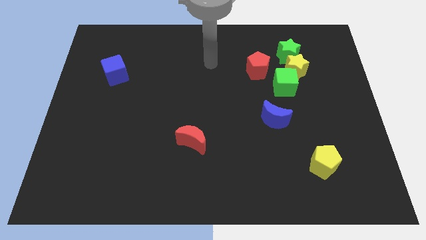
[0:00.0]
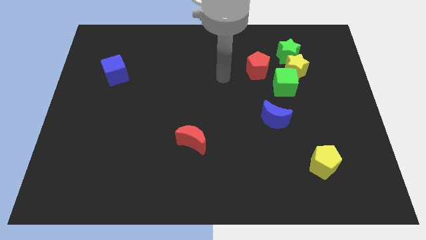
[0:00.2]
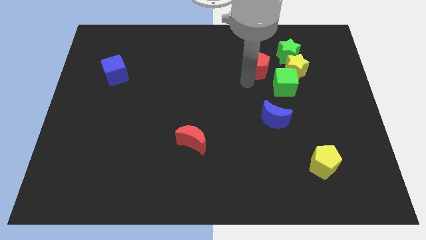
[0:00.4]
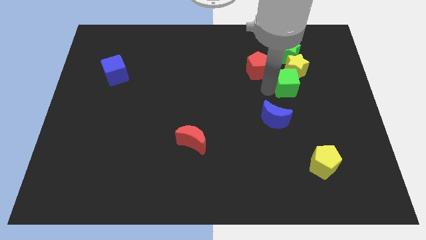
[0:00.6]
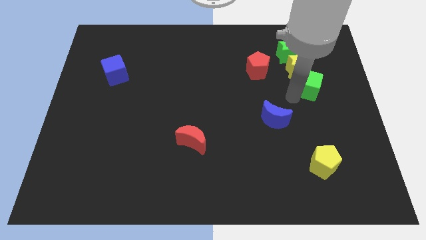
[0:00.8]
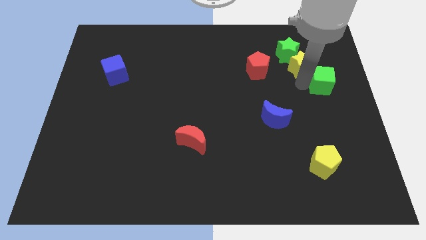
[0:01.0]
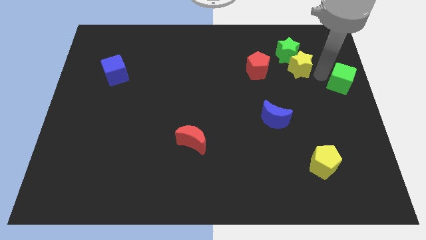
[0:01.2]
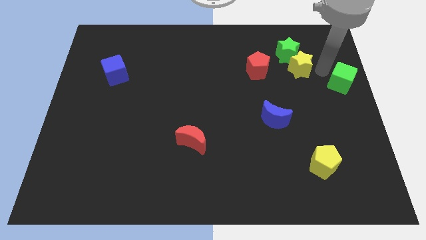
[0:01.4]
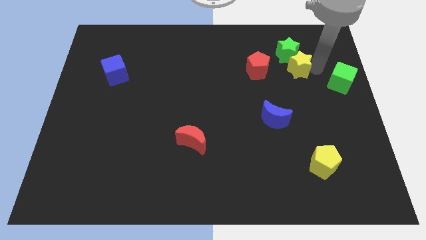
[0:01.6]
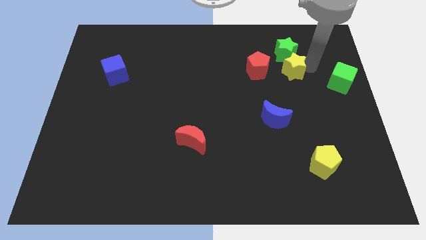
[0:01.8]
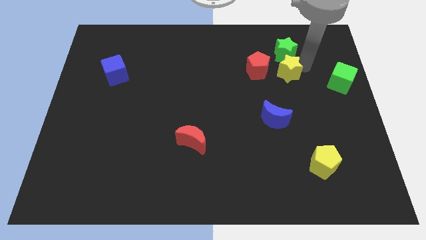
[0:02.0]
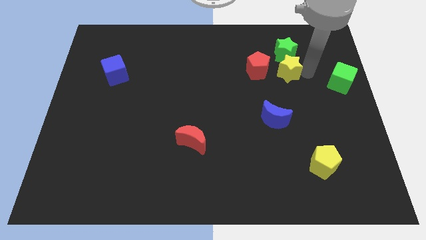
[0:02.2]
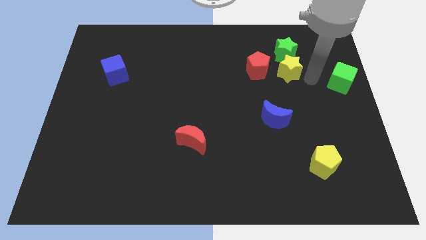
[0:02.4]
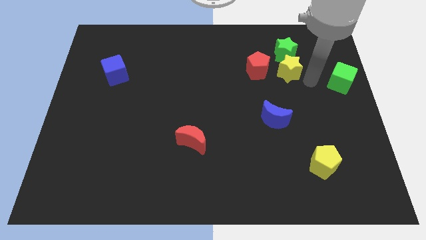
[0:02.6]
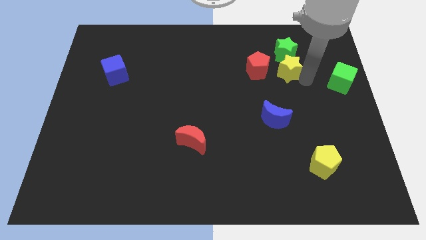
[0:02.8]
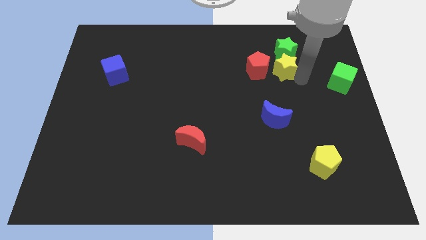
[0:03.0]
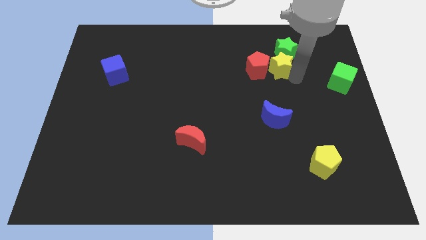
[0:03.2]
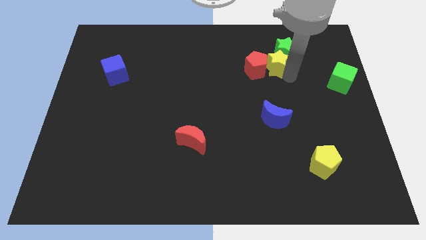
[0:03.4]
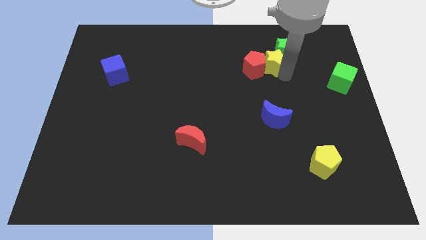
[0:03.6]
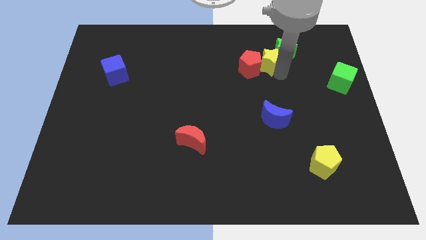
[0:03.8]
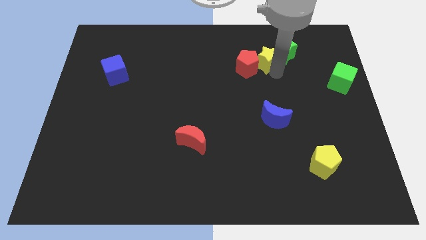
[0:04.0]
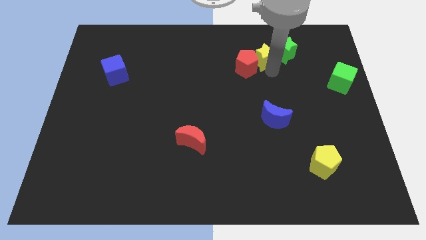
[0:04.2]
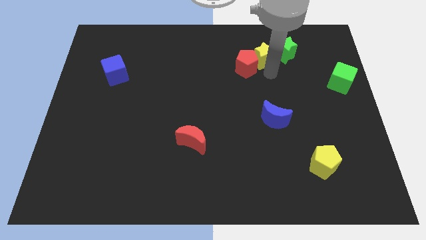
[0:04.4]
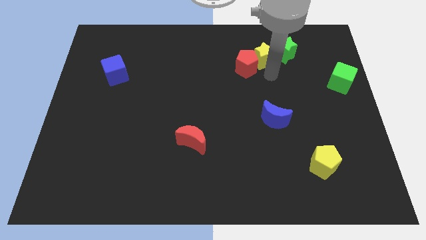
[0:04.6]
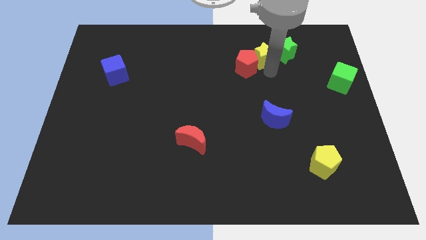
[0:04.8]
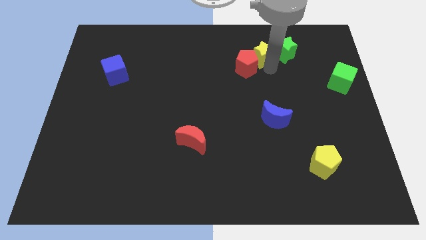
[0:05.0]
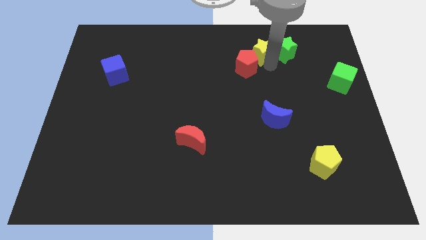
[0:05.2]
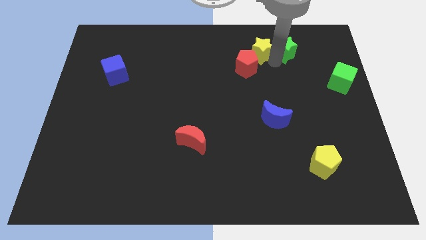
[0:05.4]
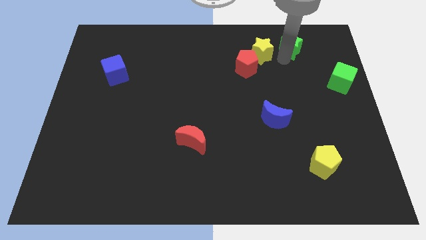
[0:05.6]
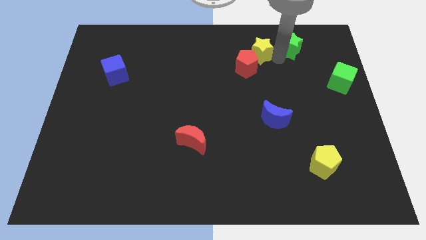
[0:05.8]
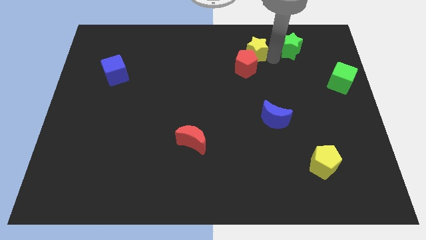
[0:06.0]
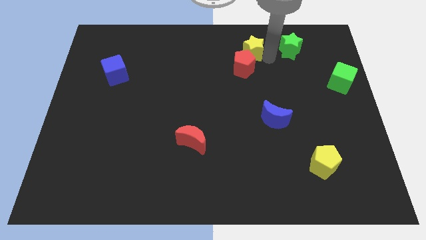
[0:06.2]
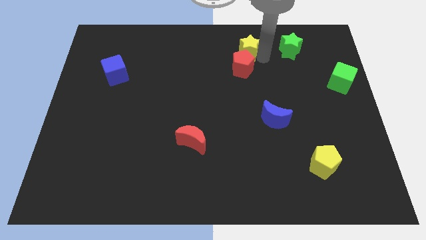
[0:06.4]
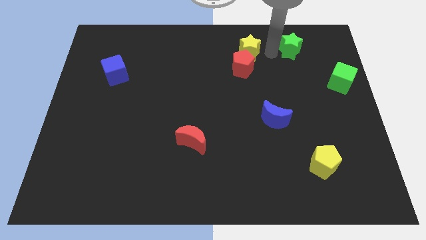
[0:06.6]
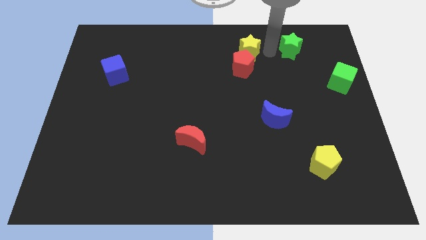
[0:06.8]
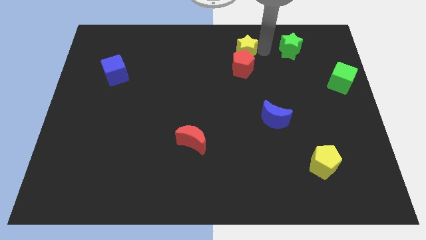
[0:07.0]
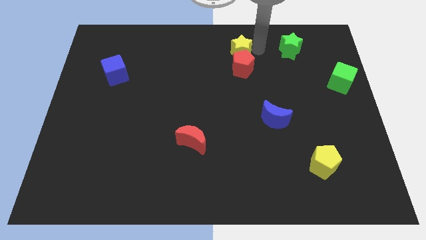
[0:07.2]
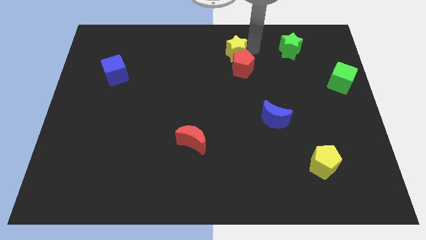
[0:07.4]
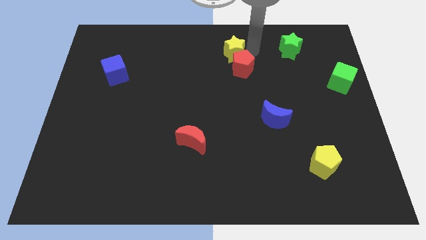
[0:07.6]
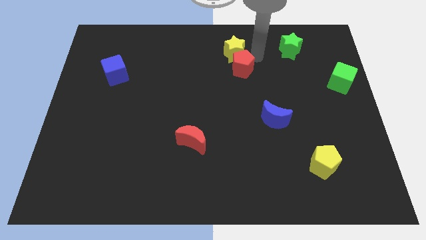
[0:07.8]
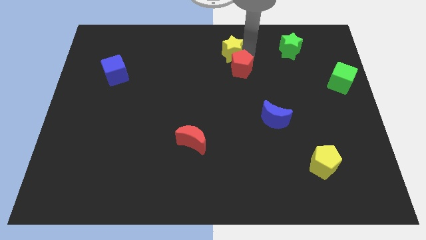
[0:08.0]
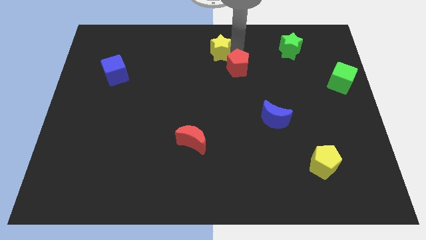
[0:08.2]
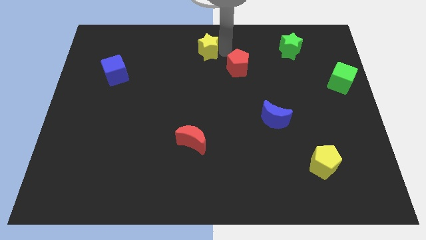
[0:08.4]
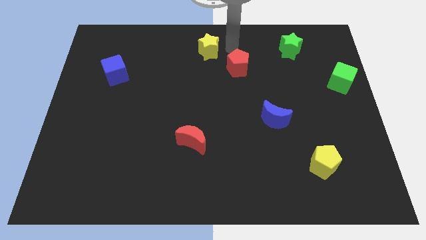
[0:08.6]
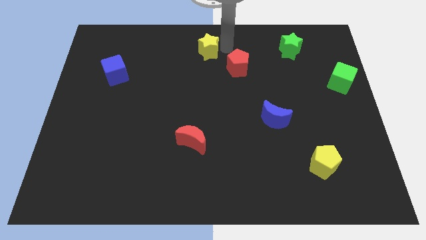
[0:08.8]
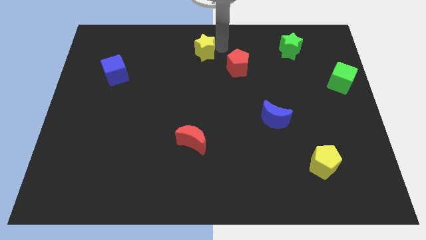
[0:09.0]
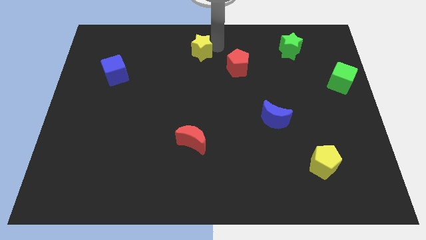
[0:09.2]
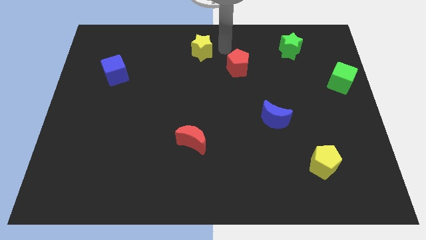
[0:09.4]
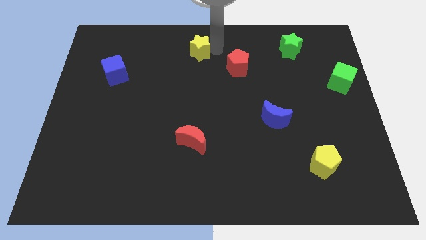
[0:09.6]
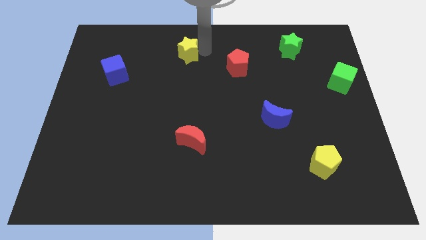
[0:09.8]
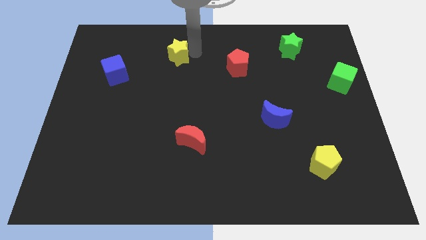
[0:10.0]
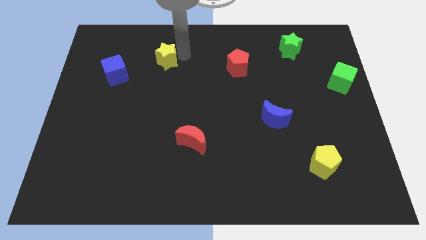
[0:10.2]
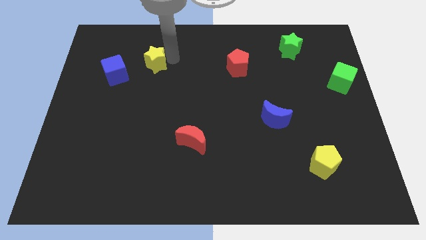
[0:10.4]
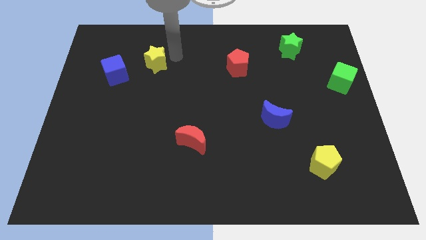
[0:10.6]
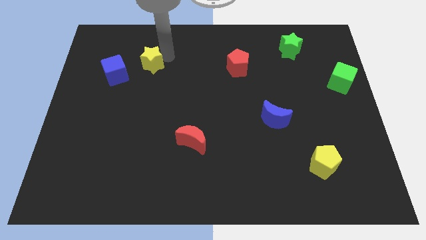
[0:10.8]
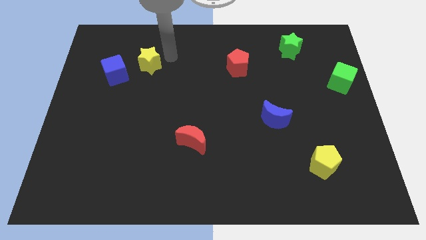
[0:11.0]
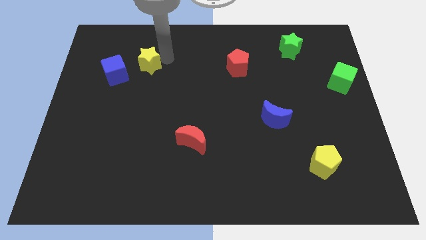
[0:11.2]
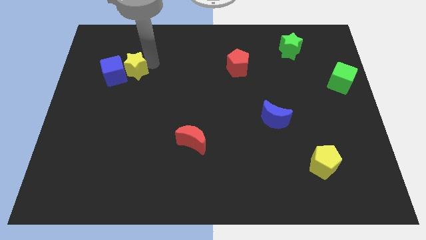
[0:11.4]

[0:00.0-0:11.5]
push the yellow star towards the blue cube

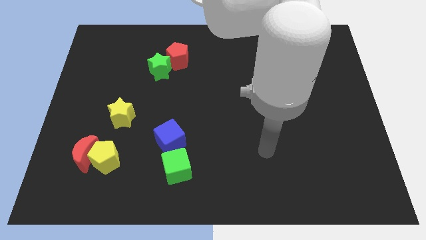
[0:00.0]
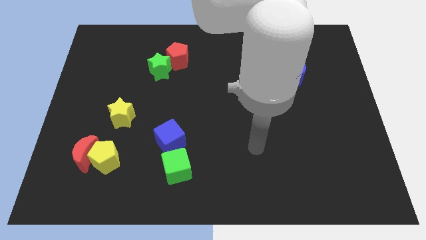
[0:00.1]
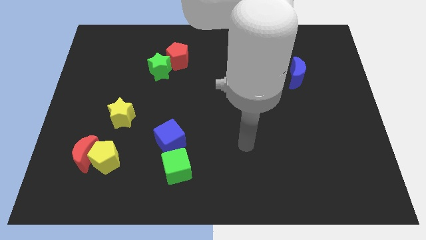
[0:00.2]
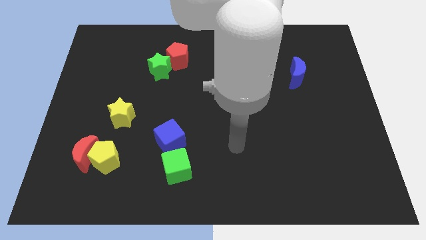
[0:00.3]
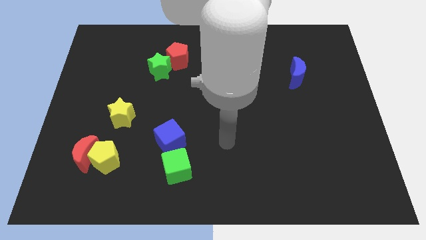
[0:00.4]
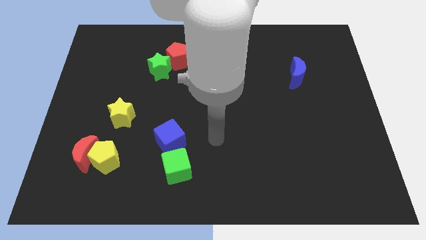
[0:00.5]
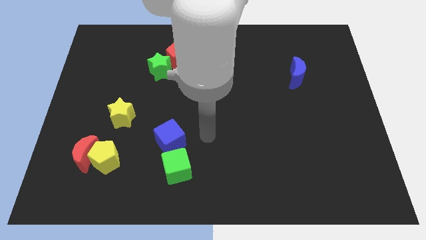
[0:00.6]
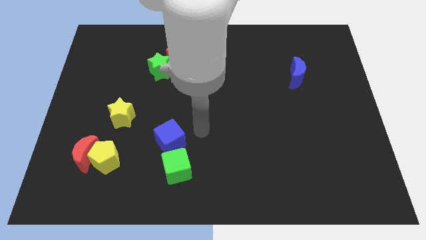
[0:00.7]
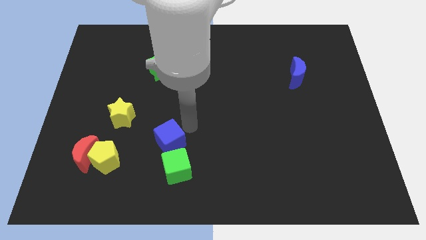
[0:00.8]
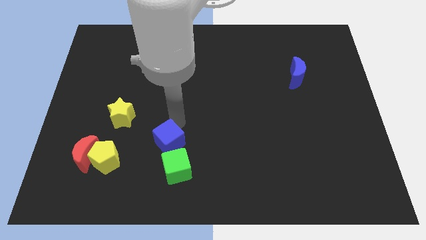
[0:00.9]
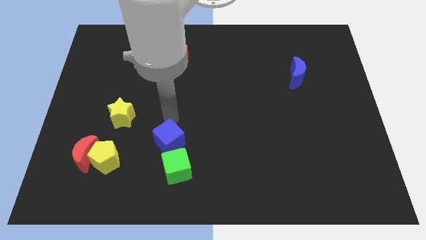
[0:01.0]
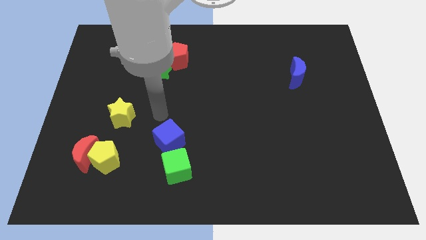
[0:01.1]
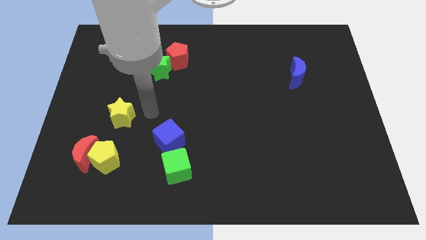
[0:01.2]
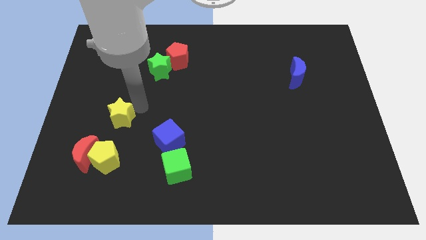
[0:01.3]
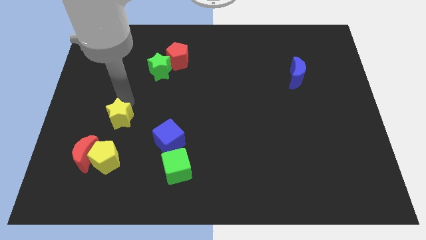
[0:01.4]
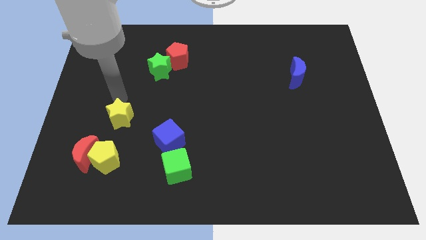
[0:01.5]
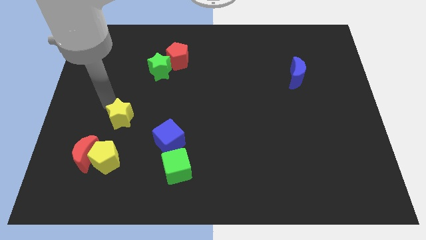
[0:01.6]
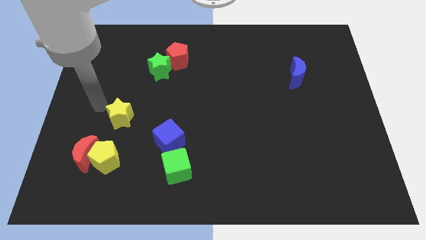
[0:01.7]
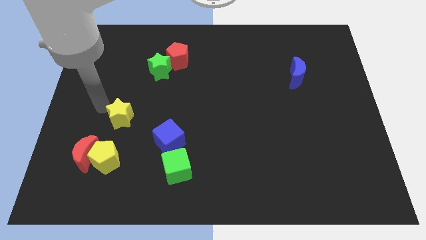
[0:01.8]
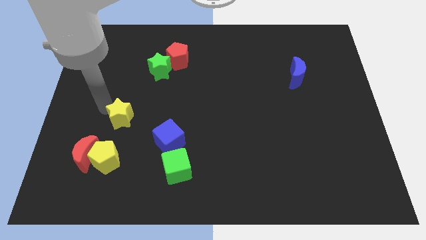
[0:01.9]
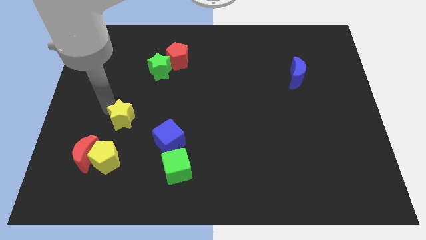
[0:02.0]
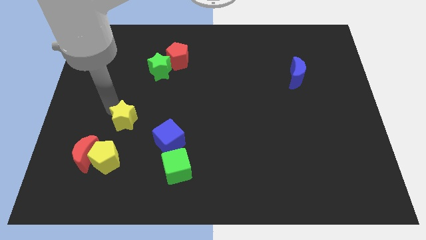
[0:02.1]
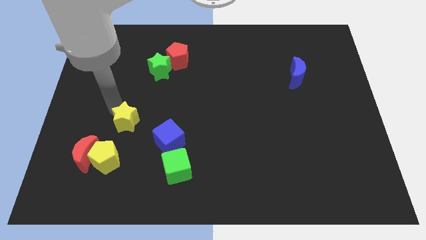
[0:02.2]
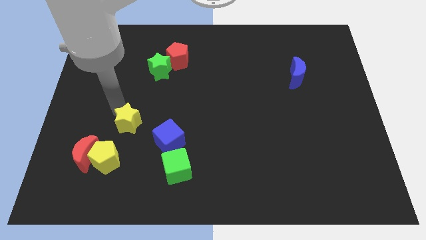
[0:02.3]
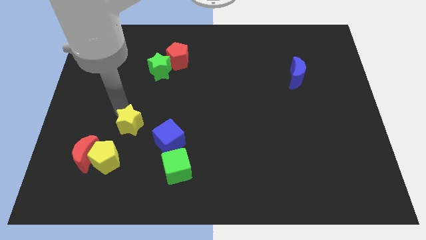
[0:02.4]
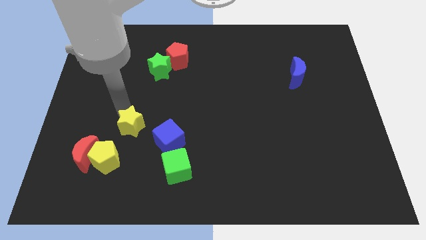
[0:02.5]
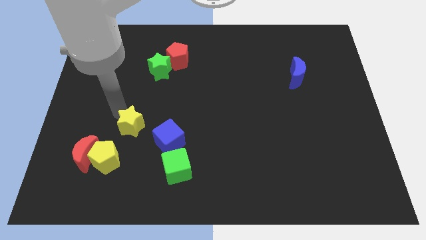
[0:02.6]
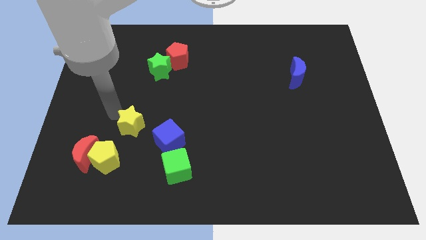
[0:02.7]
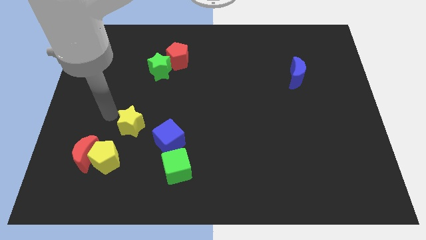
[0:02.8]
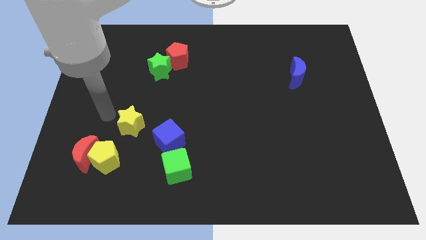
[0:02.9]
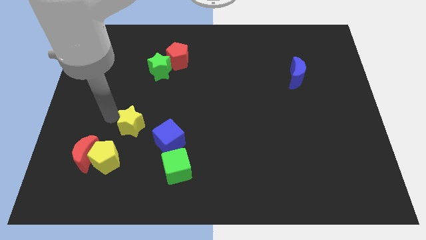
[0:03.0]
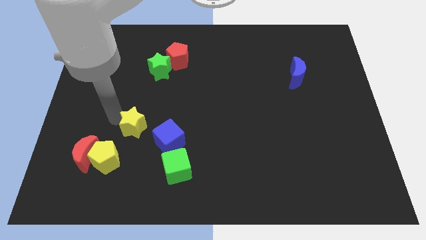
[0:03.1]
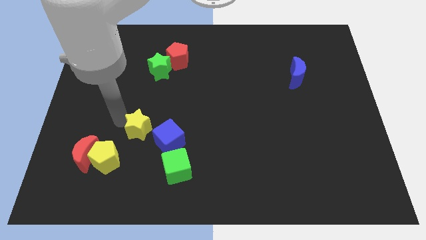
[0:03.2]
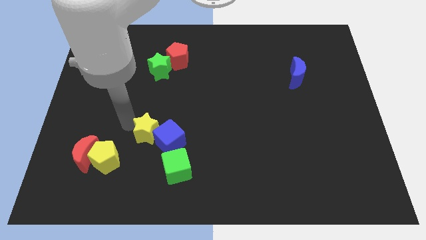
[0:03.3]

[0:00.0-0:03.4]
push the yellow star to the blue cube
